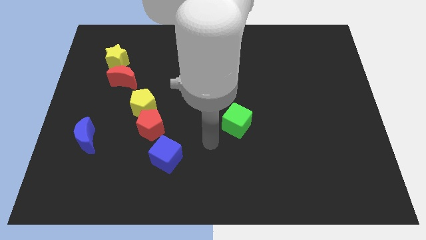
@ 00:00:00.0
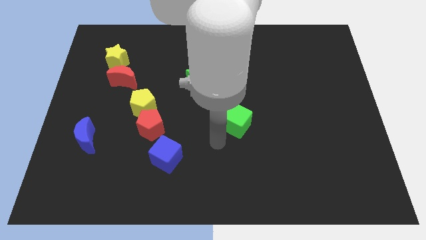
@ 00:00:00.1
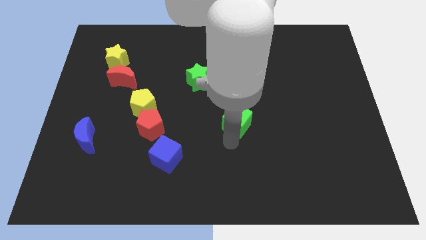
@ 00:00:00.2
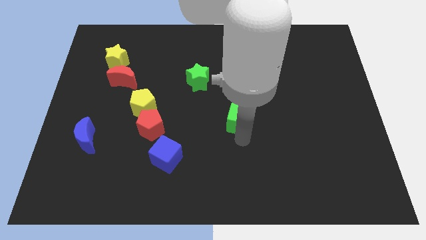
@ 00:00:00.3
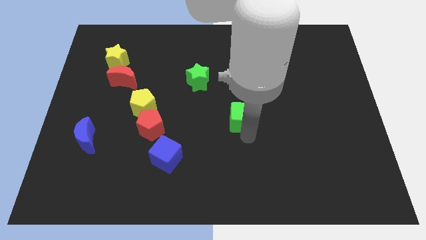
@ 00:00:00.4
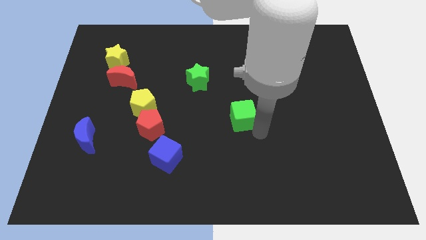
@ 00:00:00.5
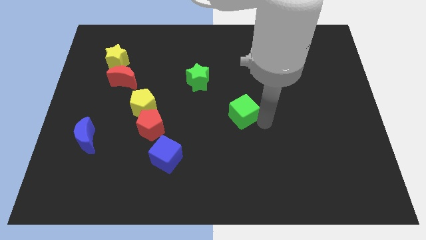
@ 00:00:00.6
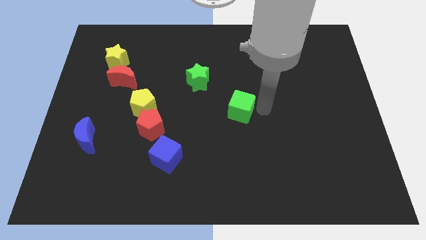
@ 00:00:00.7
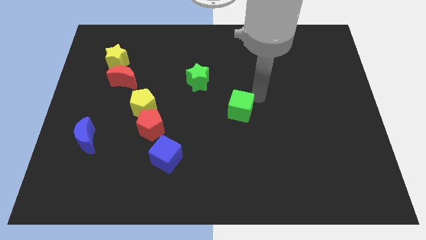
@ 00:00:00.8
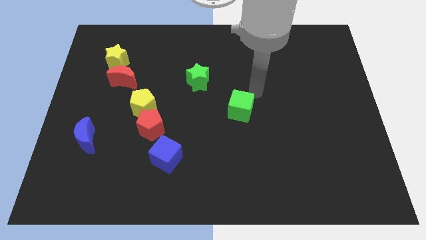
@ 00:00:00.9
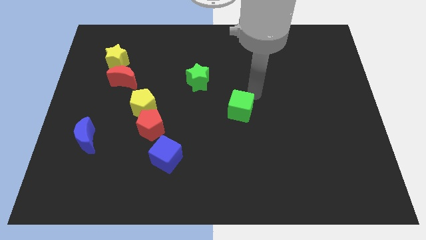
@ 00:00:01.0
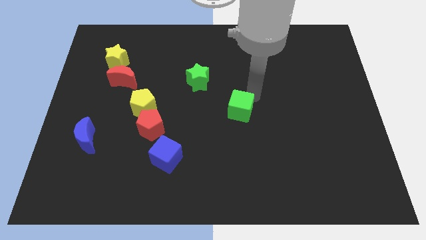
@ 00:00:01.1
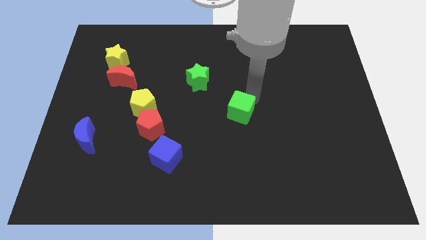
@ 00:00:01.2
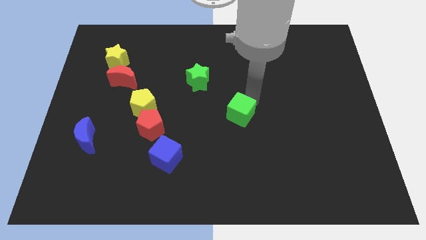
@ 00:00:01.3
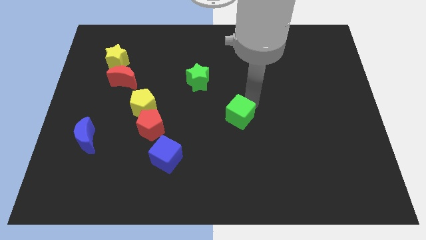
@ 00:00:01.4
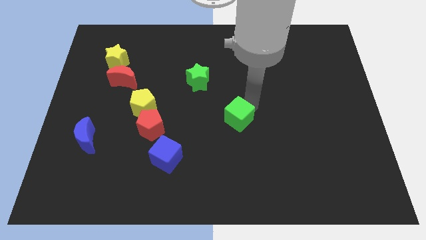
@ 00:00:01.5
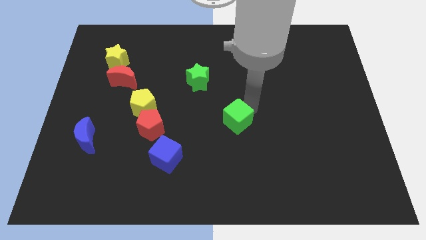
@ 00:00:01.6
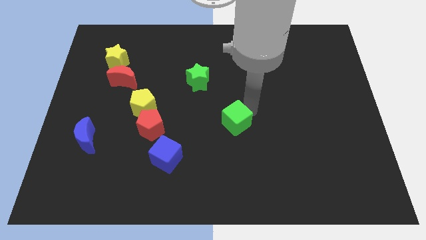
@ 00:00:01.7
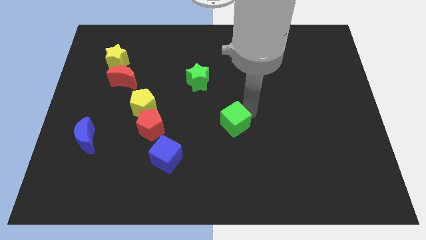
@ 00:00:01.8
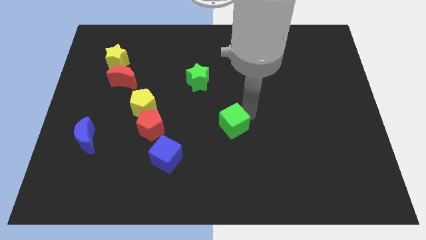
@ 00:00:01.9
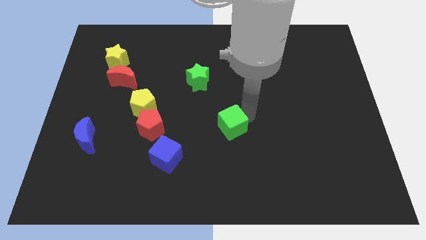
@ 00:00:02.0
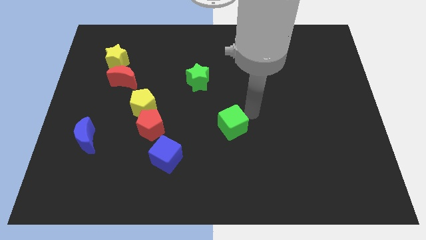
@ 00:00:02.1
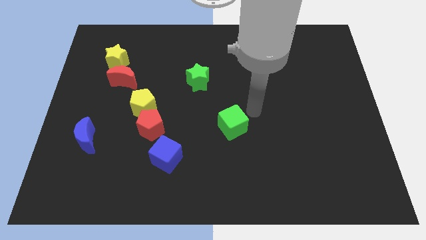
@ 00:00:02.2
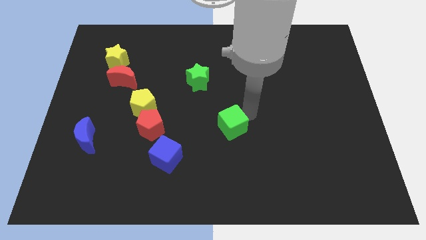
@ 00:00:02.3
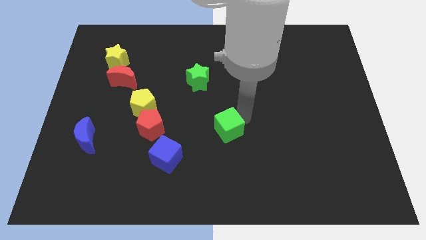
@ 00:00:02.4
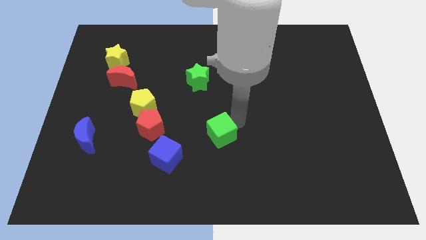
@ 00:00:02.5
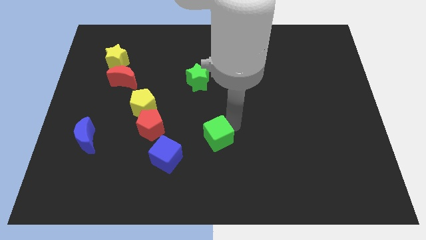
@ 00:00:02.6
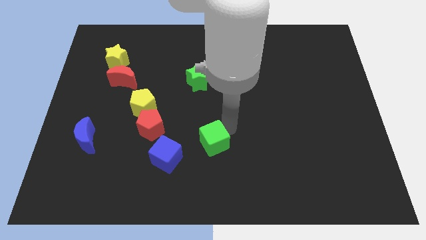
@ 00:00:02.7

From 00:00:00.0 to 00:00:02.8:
move the green cube downwards and left diagonally a little

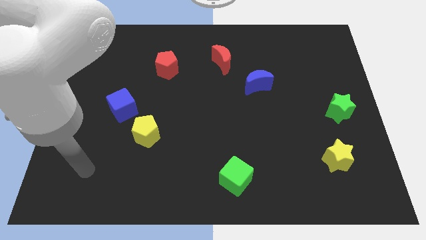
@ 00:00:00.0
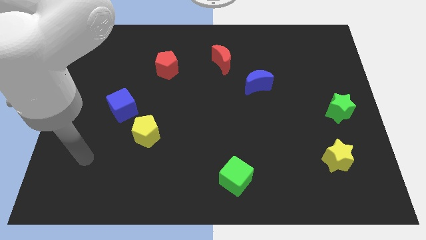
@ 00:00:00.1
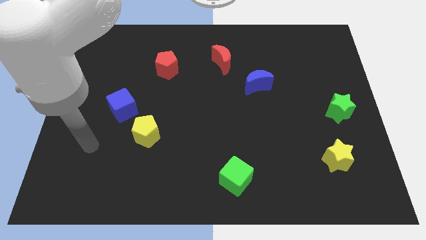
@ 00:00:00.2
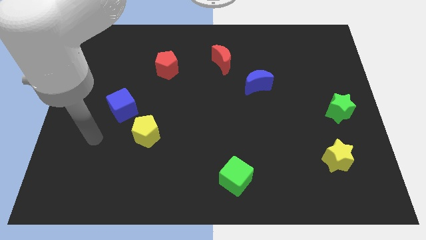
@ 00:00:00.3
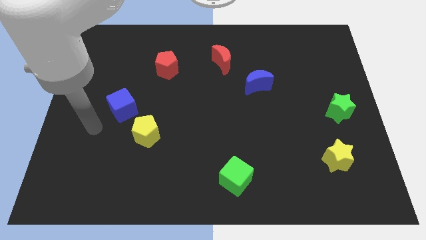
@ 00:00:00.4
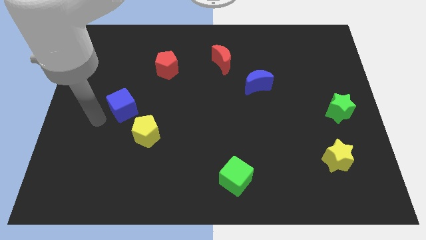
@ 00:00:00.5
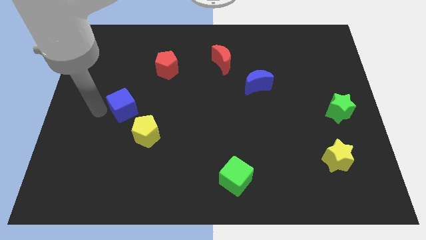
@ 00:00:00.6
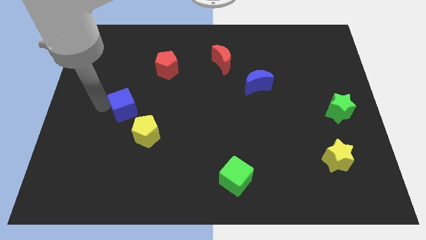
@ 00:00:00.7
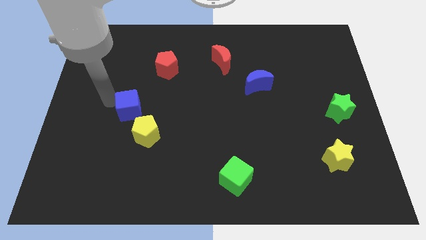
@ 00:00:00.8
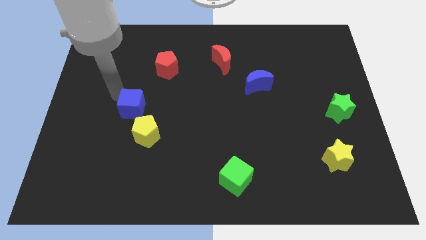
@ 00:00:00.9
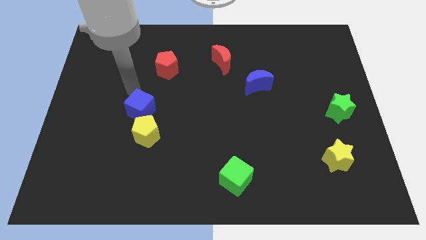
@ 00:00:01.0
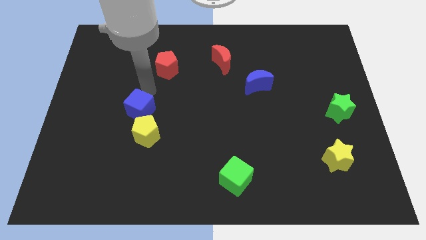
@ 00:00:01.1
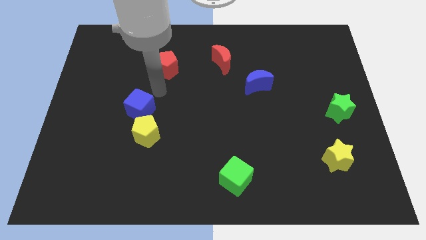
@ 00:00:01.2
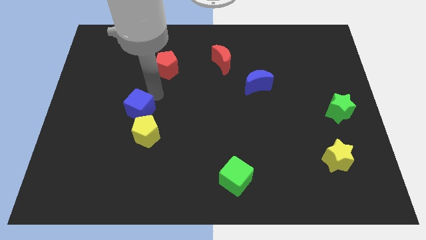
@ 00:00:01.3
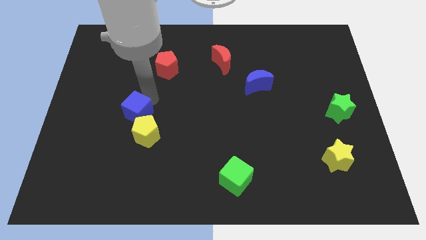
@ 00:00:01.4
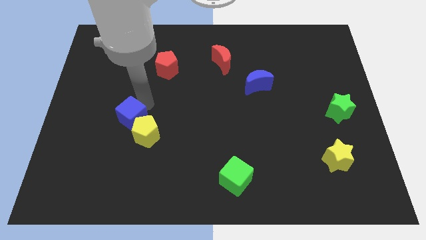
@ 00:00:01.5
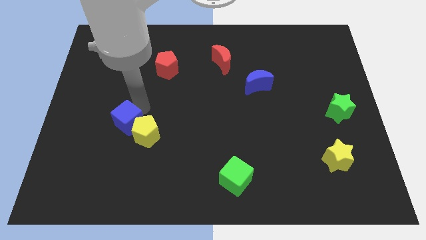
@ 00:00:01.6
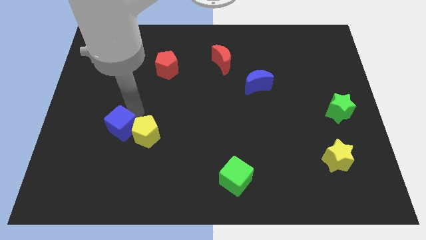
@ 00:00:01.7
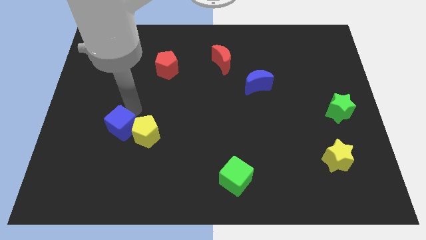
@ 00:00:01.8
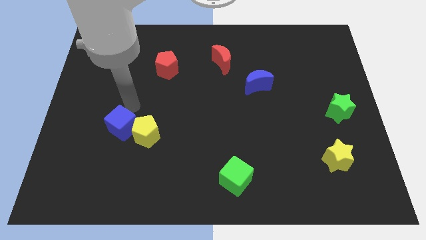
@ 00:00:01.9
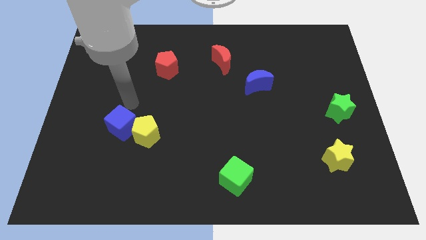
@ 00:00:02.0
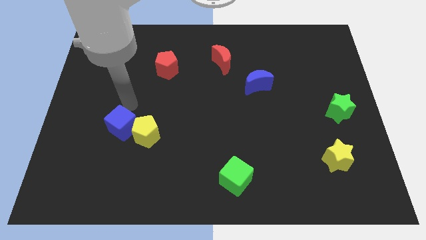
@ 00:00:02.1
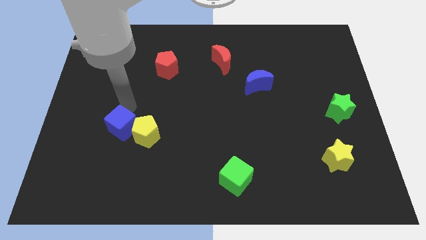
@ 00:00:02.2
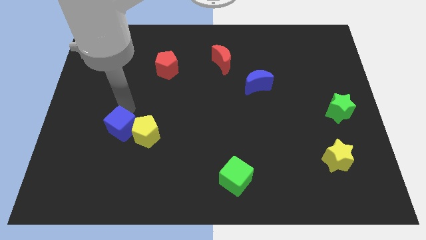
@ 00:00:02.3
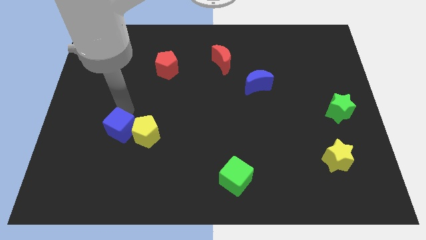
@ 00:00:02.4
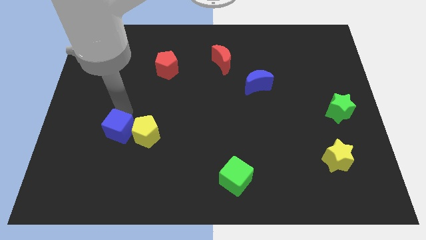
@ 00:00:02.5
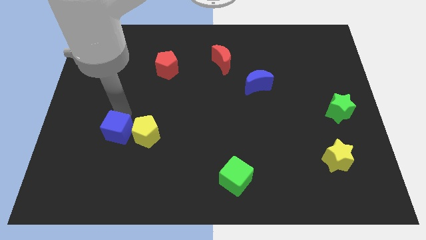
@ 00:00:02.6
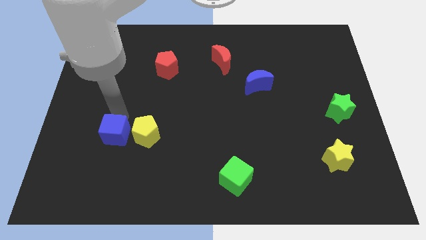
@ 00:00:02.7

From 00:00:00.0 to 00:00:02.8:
push the blue cube downwards a little

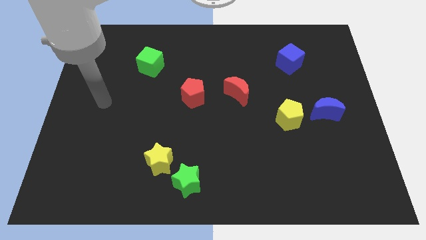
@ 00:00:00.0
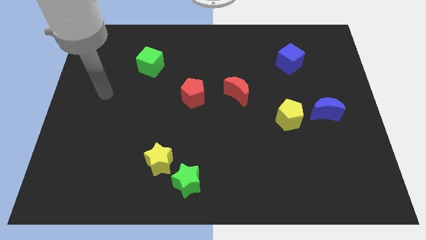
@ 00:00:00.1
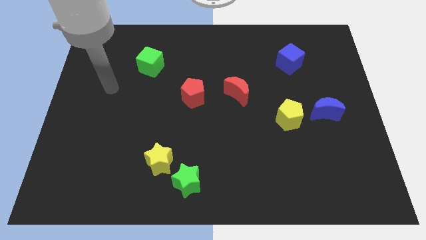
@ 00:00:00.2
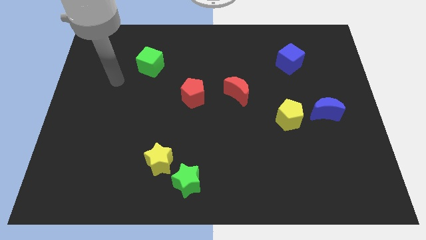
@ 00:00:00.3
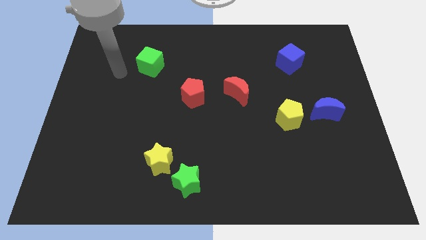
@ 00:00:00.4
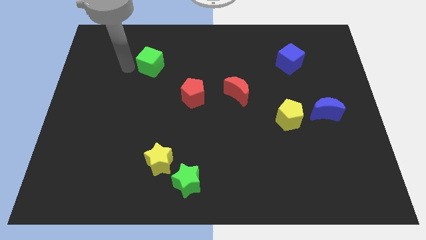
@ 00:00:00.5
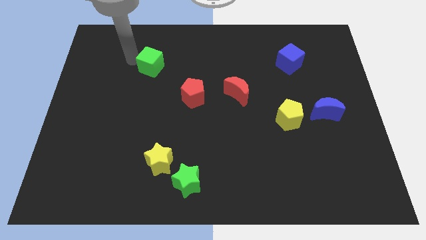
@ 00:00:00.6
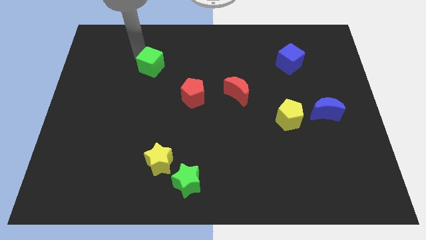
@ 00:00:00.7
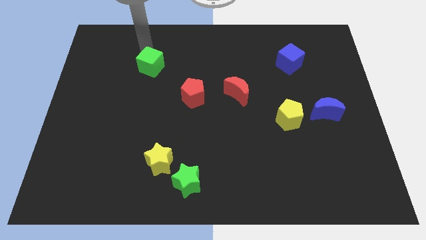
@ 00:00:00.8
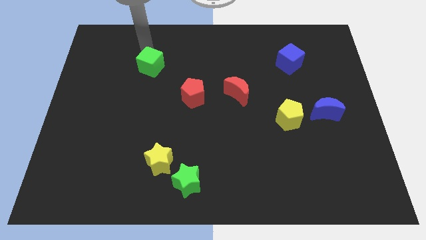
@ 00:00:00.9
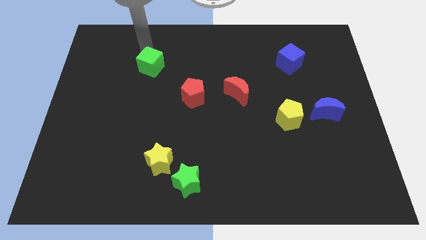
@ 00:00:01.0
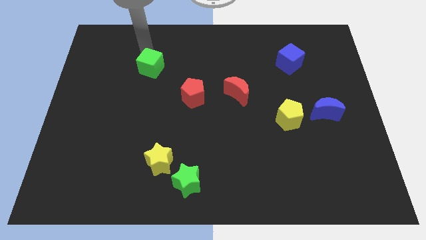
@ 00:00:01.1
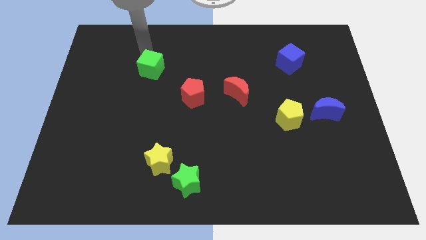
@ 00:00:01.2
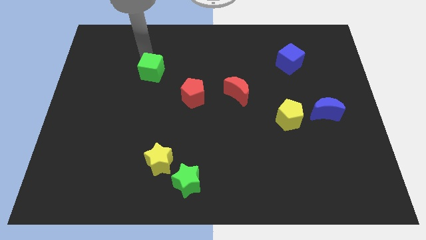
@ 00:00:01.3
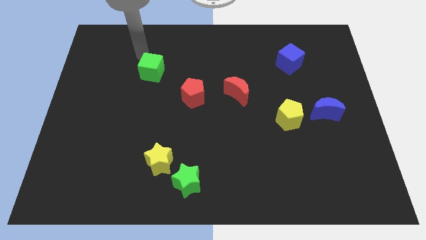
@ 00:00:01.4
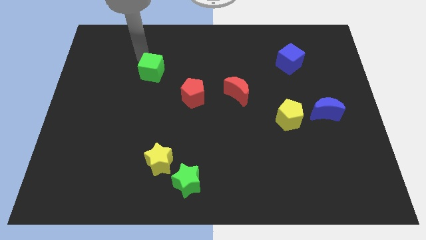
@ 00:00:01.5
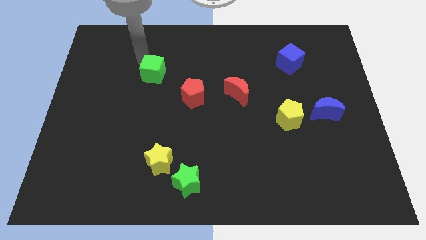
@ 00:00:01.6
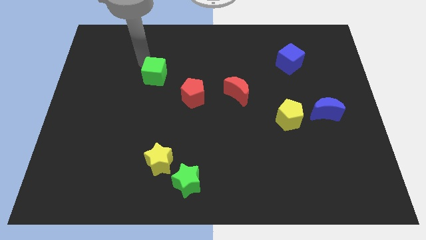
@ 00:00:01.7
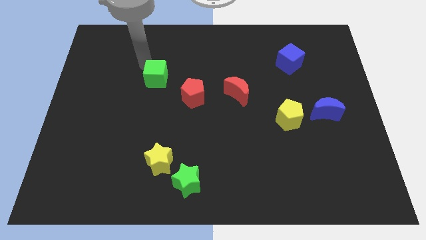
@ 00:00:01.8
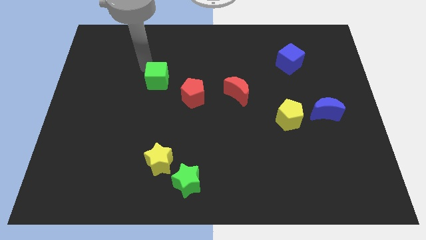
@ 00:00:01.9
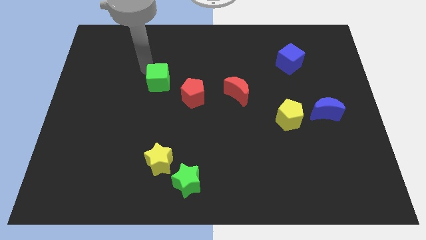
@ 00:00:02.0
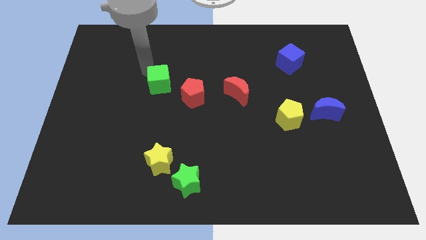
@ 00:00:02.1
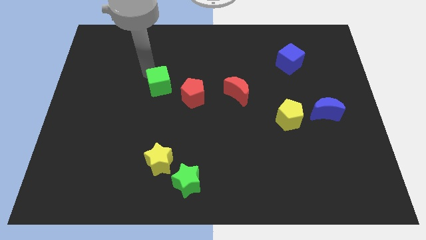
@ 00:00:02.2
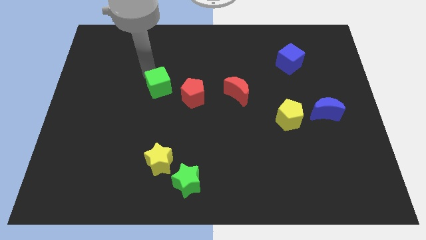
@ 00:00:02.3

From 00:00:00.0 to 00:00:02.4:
push the green cube downwards and then to the right a little bit
